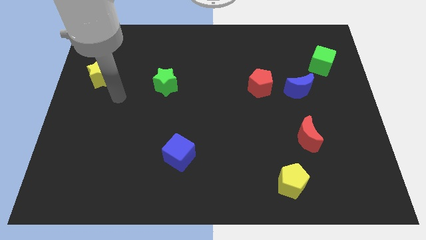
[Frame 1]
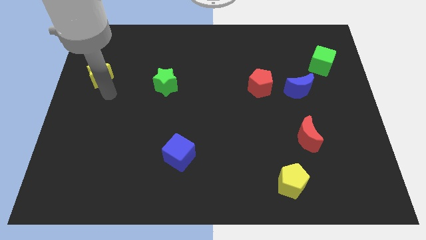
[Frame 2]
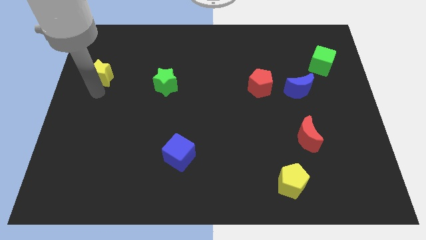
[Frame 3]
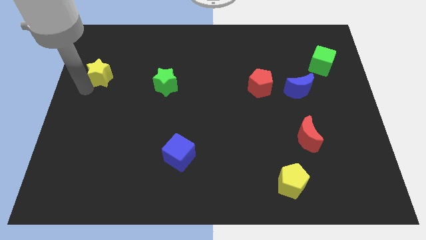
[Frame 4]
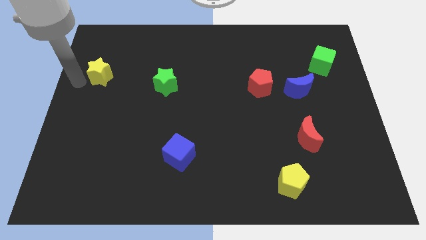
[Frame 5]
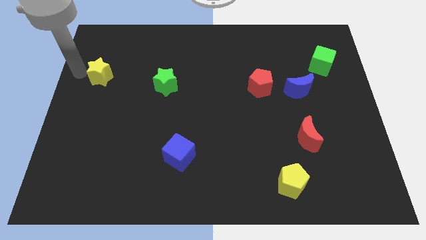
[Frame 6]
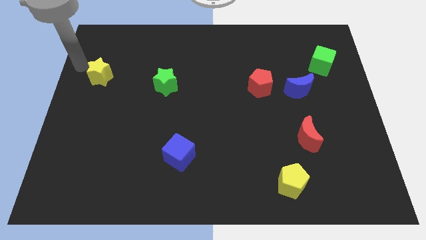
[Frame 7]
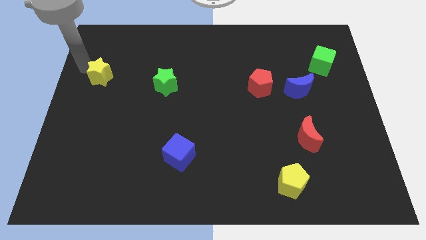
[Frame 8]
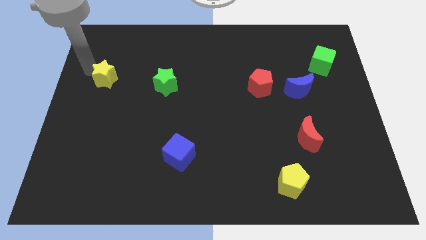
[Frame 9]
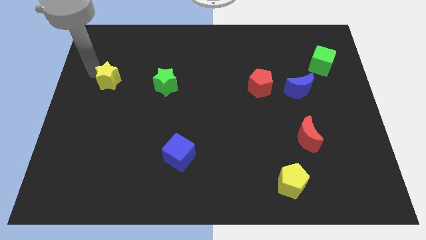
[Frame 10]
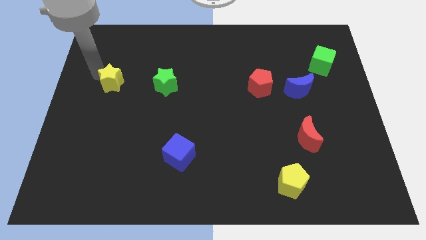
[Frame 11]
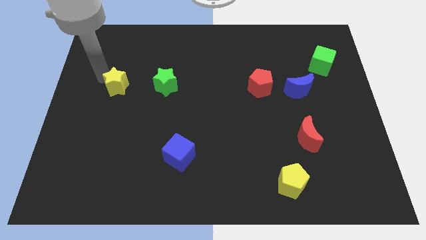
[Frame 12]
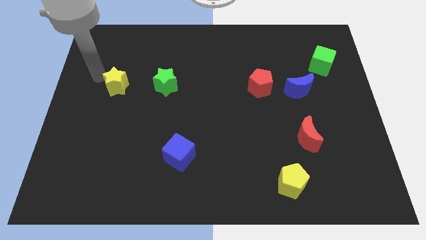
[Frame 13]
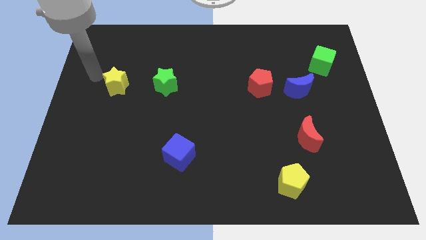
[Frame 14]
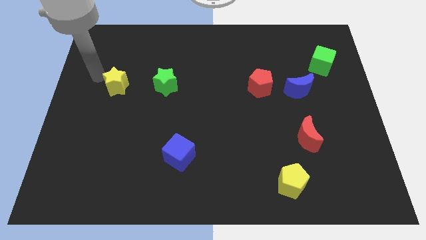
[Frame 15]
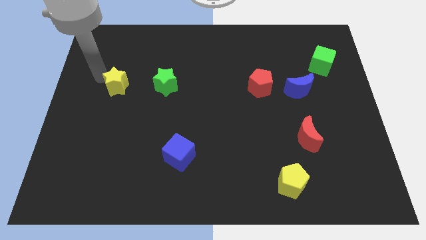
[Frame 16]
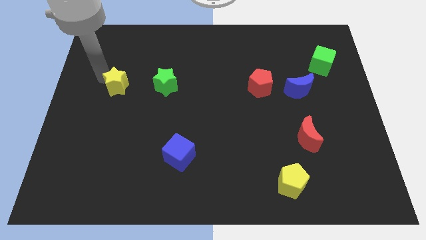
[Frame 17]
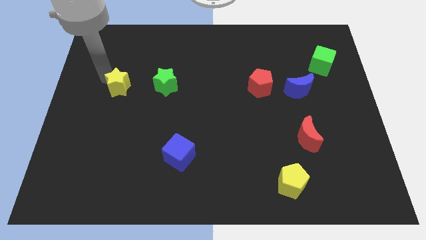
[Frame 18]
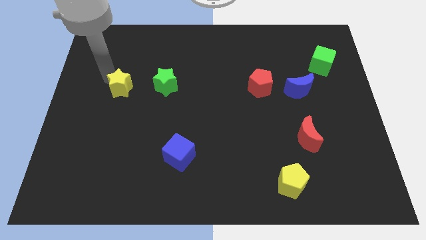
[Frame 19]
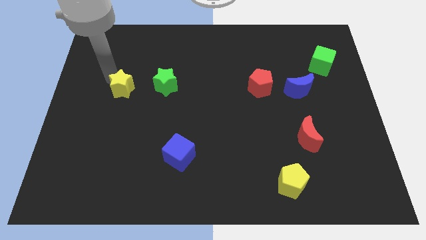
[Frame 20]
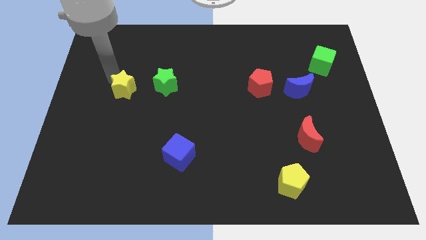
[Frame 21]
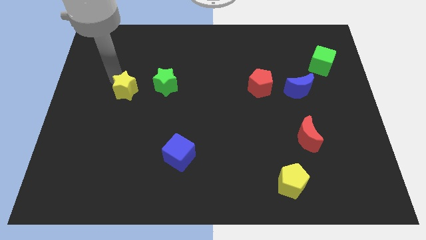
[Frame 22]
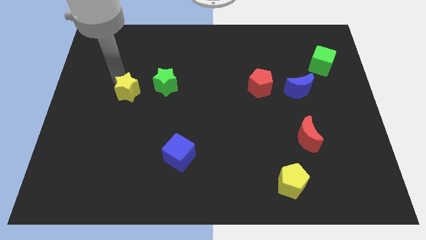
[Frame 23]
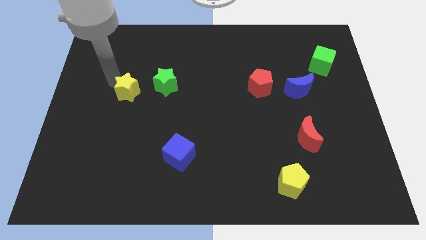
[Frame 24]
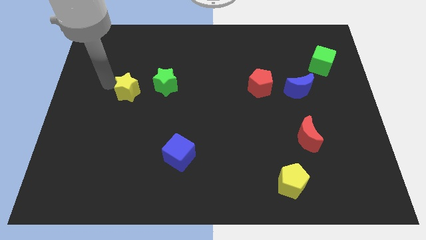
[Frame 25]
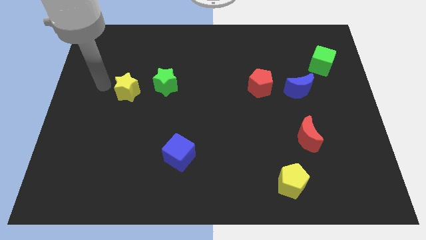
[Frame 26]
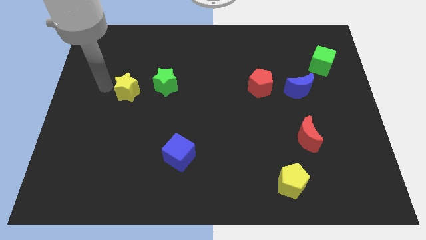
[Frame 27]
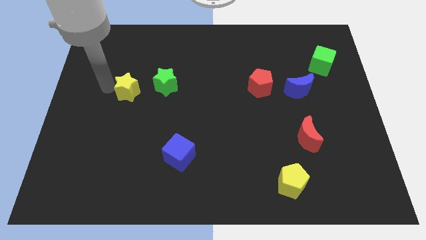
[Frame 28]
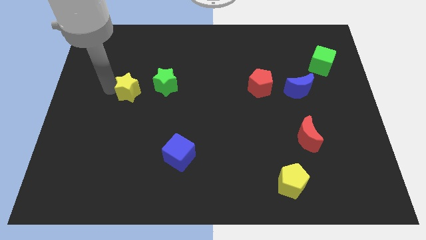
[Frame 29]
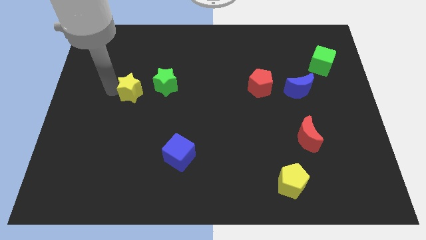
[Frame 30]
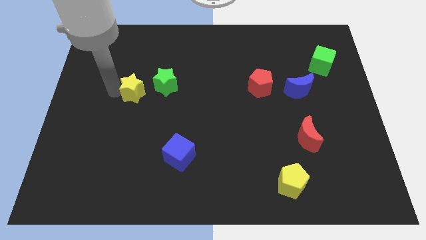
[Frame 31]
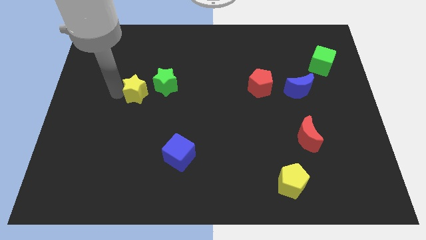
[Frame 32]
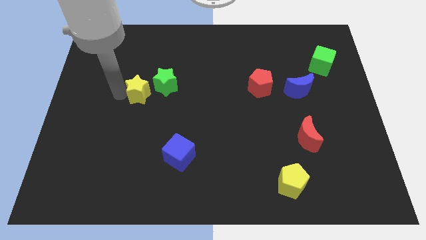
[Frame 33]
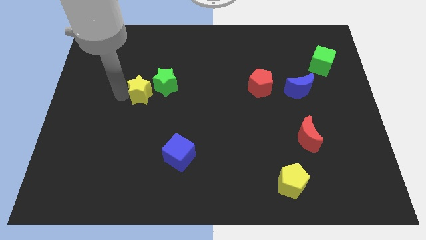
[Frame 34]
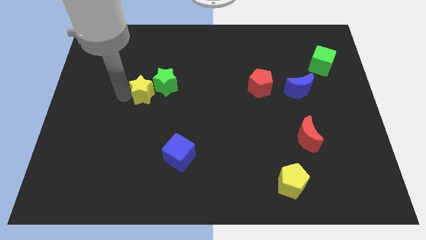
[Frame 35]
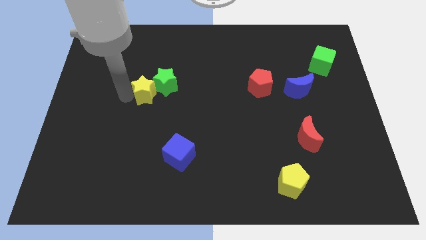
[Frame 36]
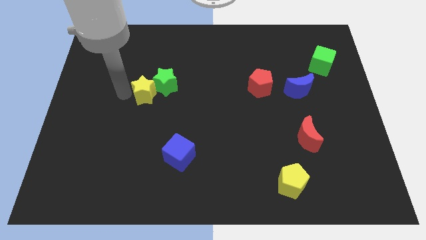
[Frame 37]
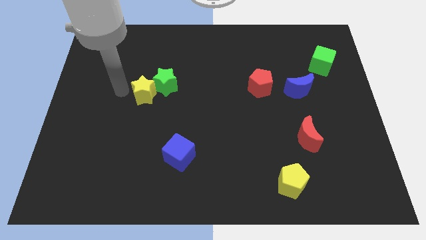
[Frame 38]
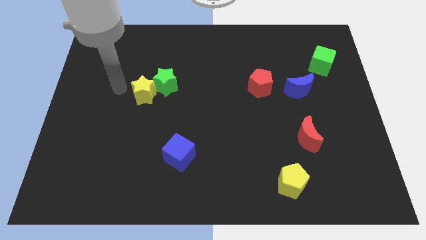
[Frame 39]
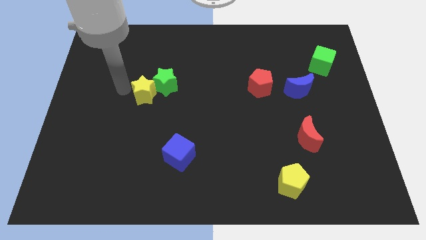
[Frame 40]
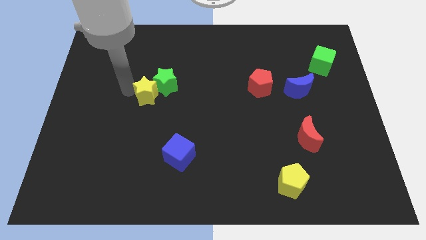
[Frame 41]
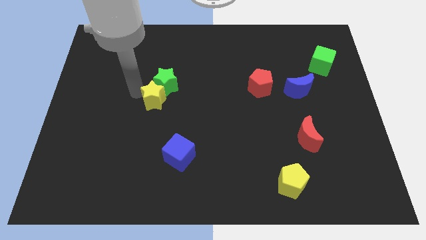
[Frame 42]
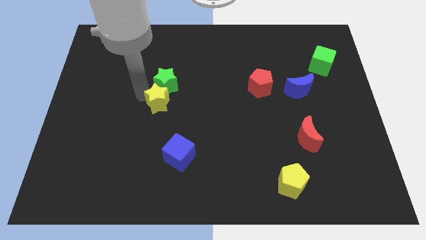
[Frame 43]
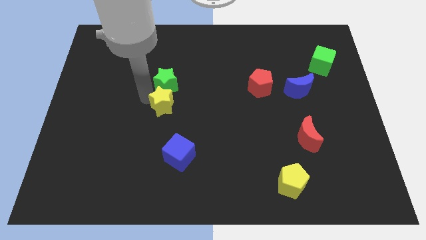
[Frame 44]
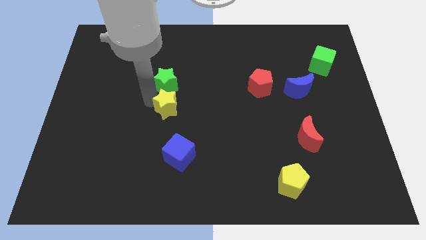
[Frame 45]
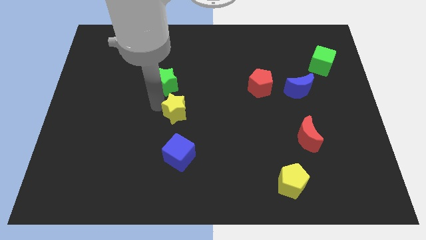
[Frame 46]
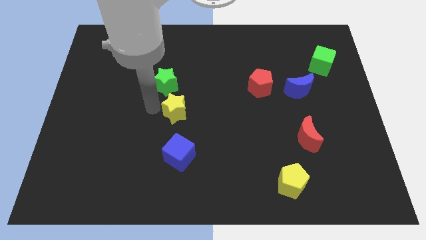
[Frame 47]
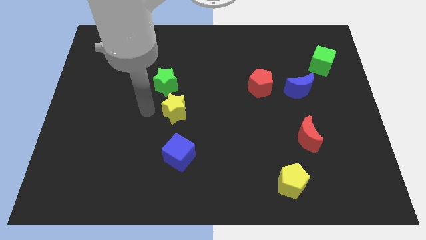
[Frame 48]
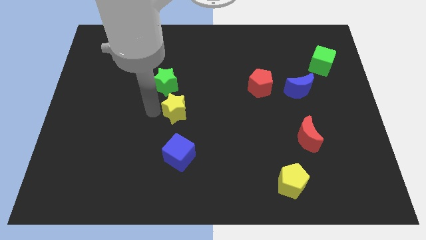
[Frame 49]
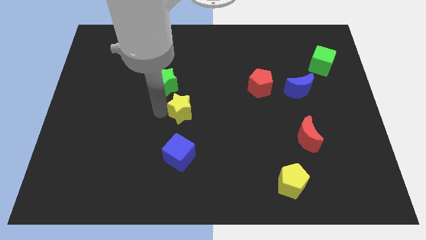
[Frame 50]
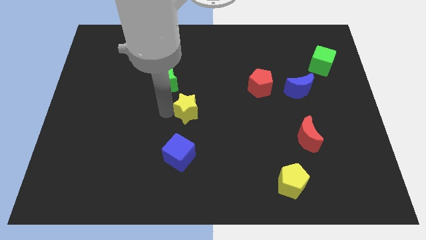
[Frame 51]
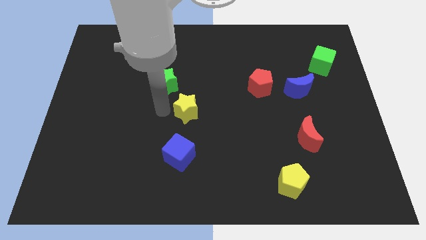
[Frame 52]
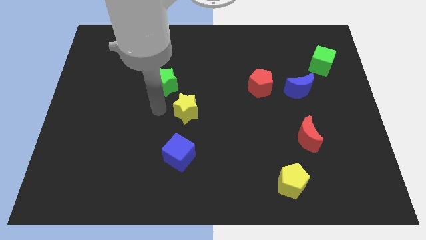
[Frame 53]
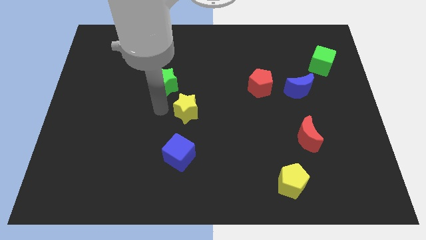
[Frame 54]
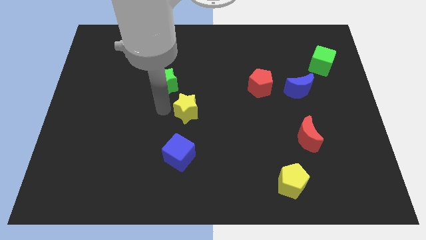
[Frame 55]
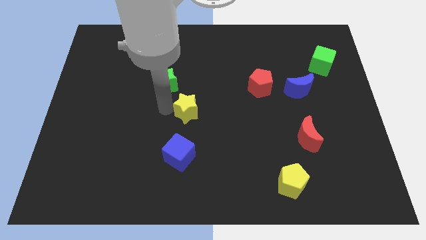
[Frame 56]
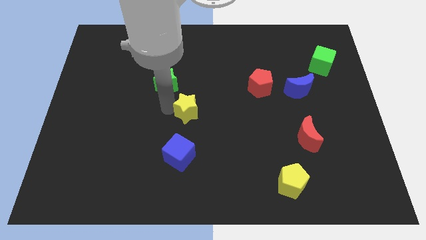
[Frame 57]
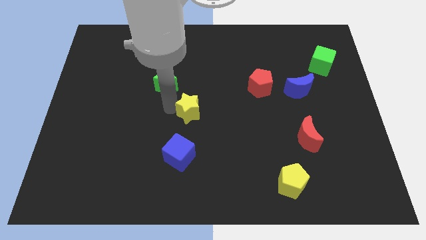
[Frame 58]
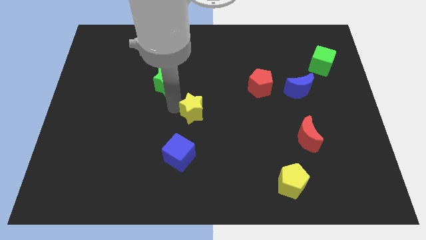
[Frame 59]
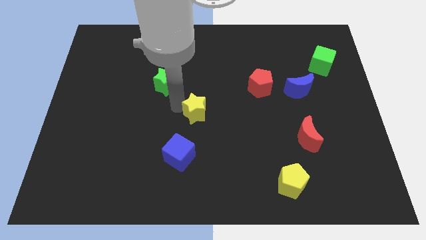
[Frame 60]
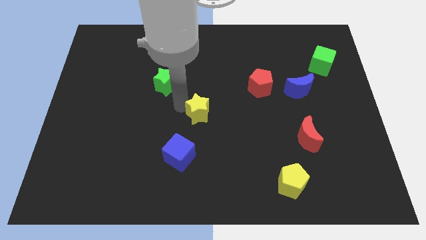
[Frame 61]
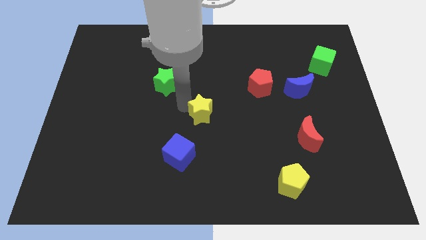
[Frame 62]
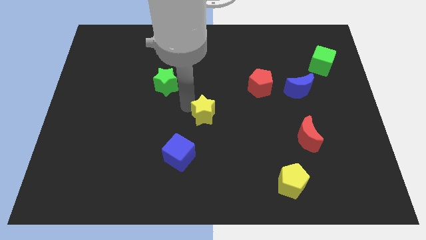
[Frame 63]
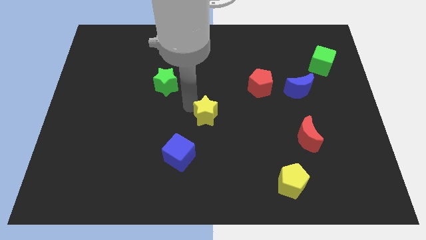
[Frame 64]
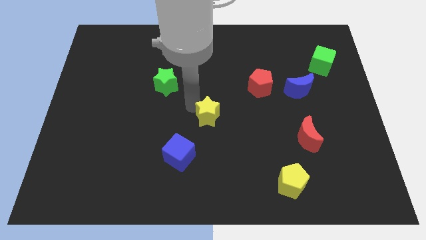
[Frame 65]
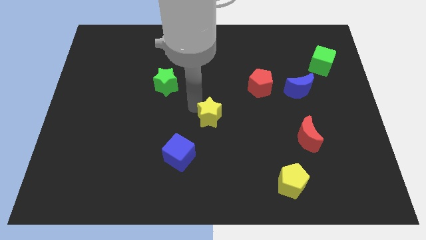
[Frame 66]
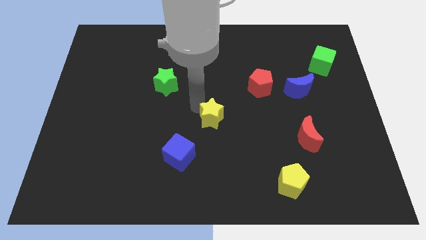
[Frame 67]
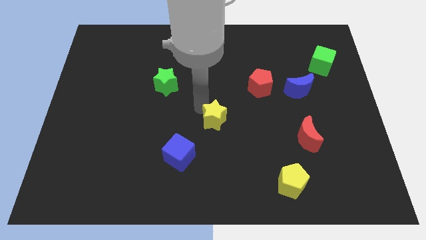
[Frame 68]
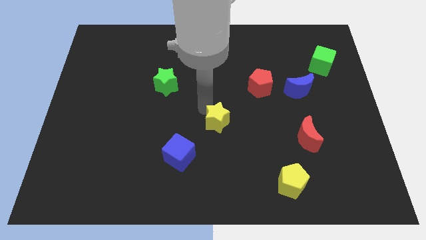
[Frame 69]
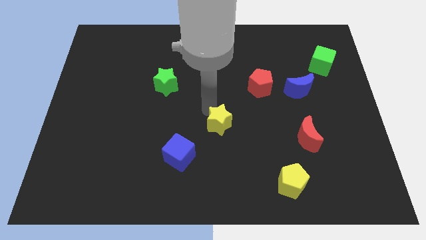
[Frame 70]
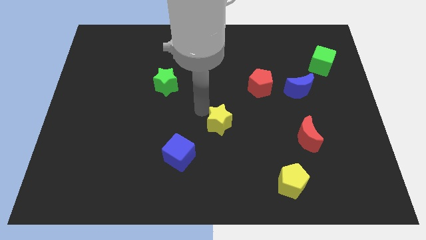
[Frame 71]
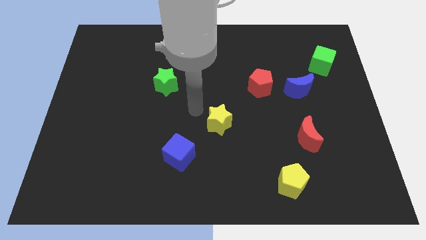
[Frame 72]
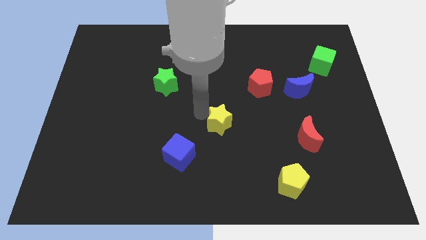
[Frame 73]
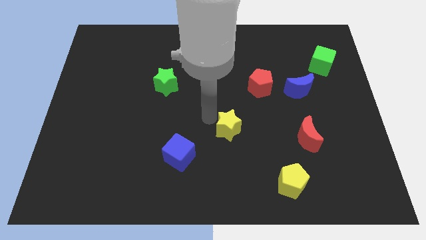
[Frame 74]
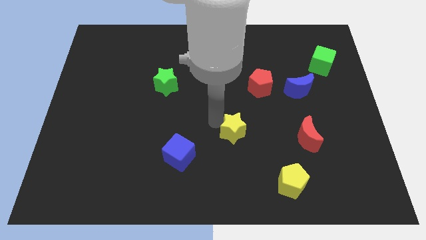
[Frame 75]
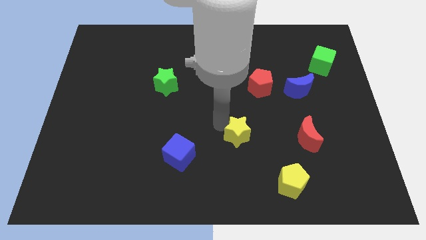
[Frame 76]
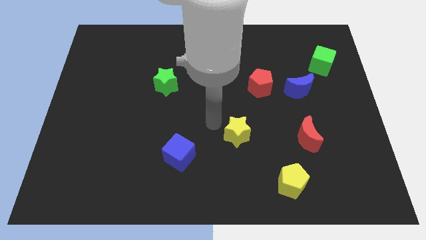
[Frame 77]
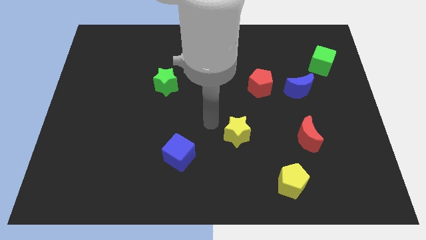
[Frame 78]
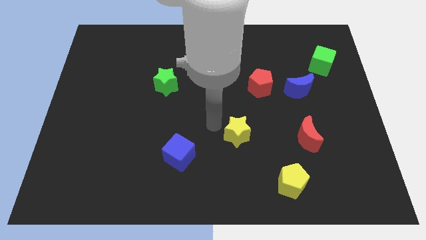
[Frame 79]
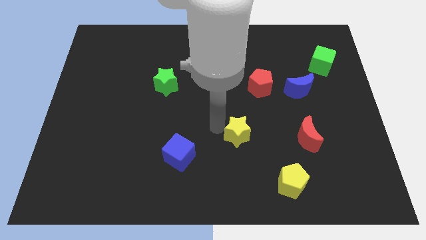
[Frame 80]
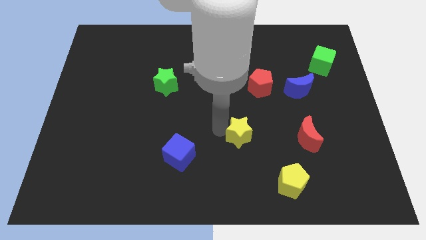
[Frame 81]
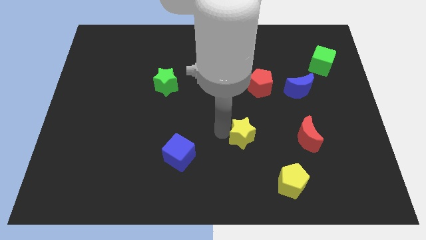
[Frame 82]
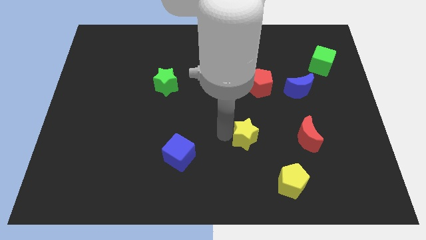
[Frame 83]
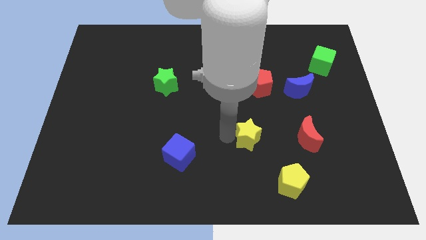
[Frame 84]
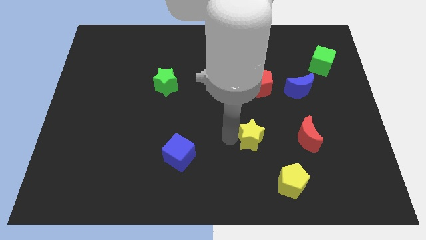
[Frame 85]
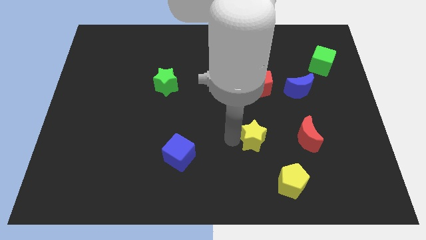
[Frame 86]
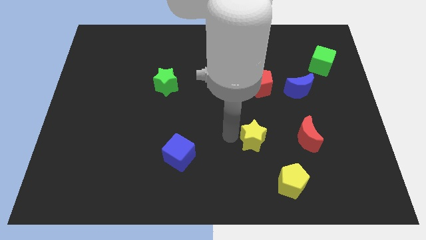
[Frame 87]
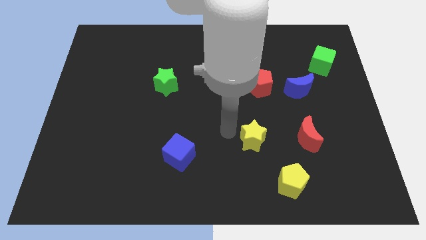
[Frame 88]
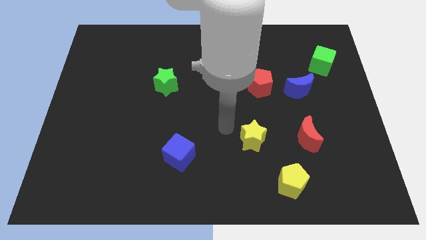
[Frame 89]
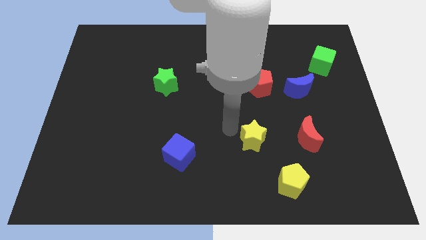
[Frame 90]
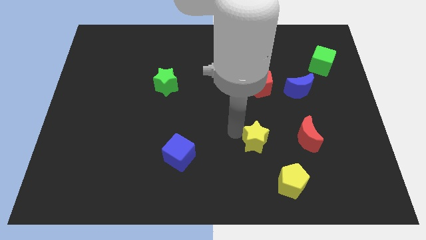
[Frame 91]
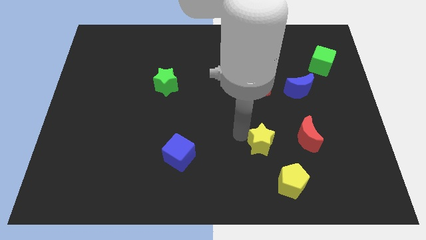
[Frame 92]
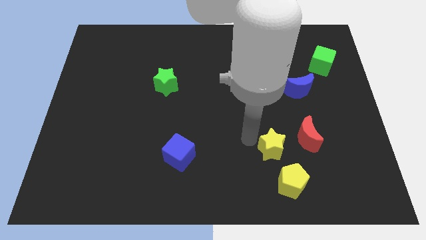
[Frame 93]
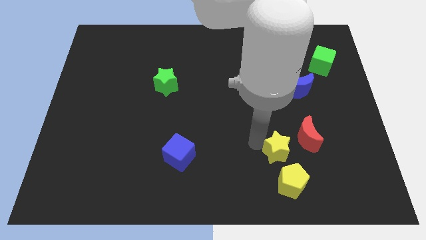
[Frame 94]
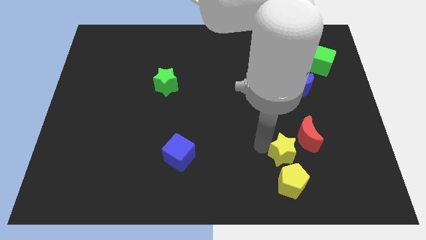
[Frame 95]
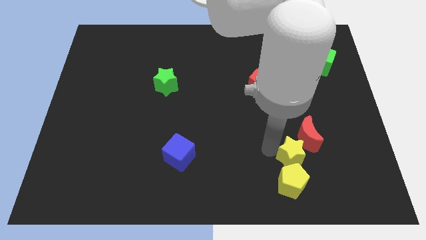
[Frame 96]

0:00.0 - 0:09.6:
push the yellow star diagonally up and to the right of the yellow pentagon
